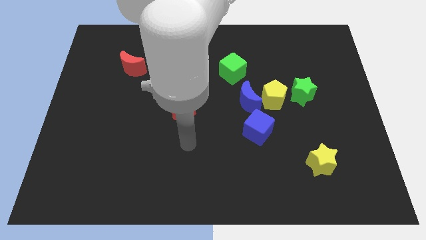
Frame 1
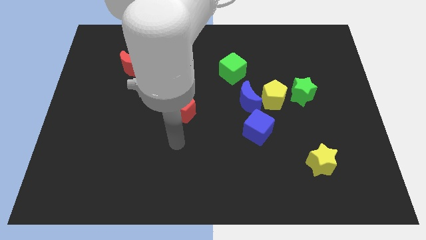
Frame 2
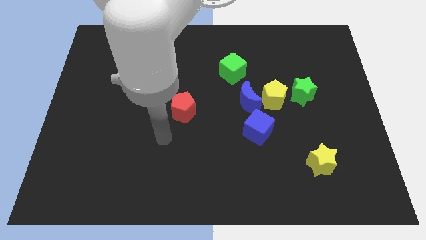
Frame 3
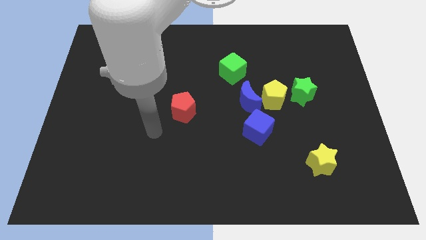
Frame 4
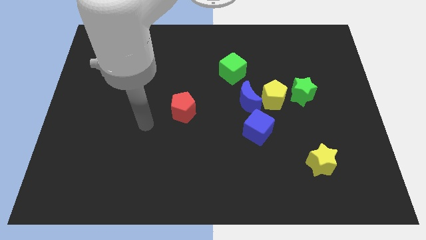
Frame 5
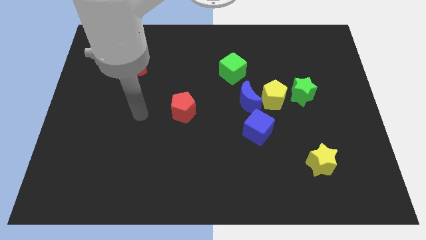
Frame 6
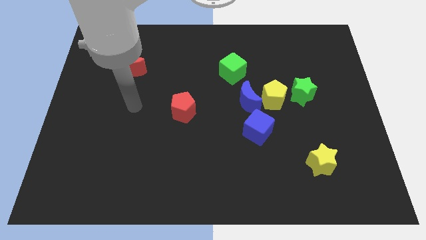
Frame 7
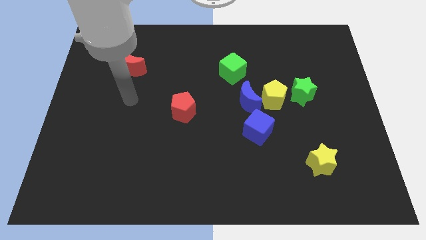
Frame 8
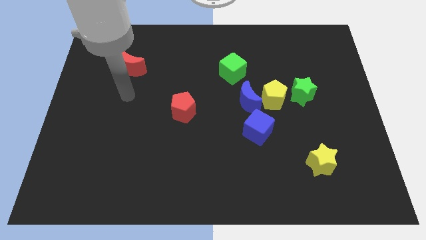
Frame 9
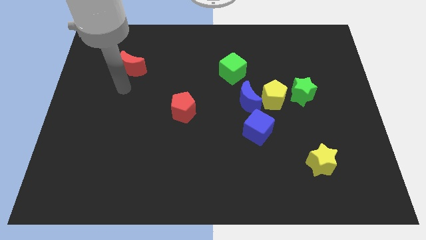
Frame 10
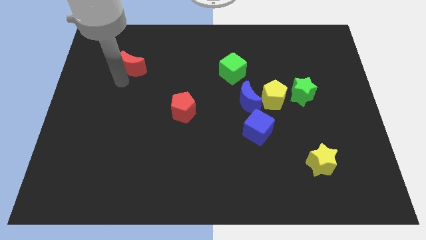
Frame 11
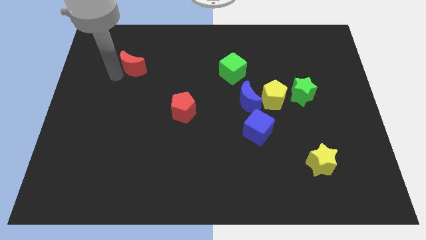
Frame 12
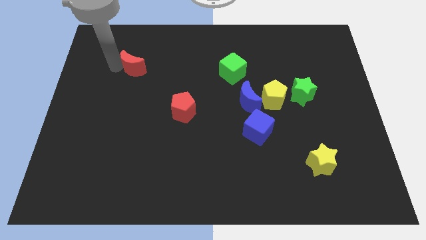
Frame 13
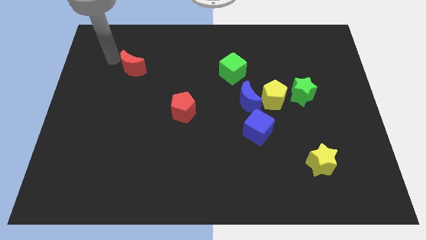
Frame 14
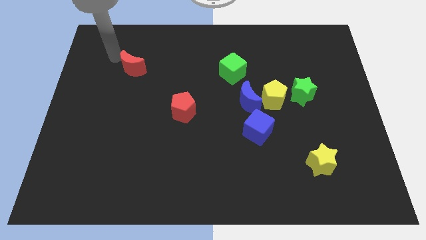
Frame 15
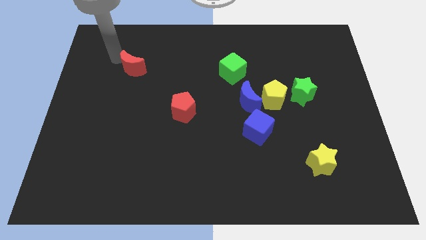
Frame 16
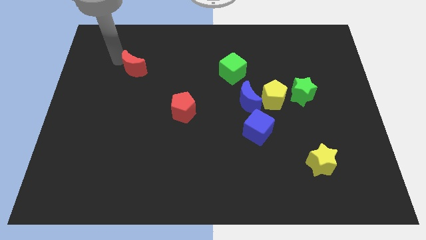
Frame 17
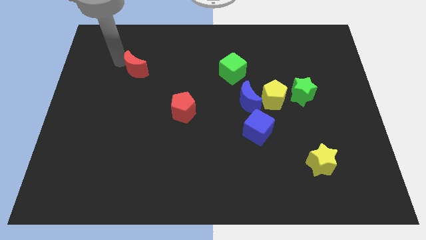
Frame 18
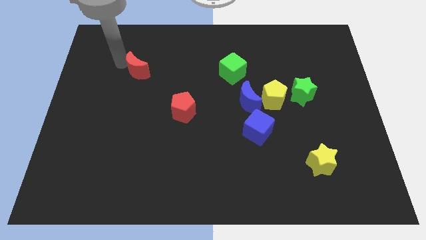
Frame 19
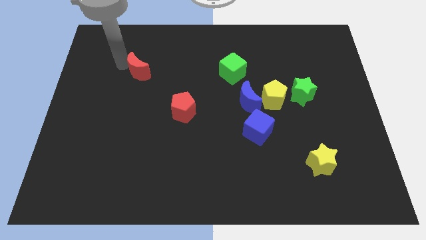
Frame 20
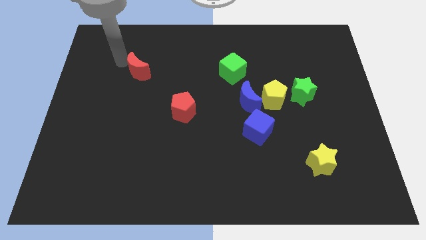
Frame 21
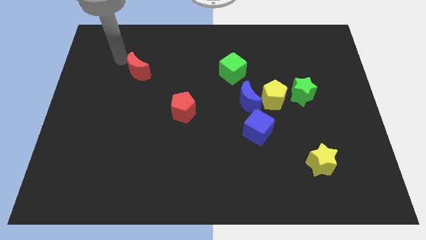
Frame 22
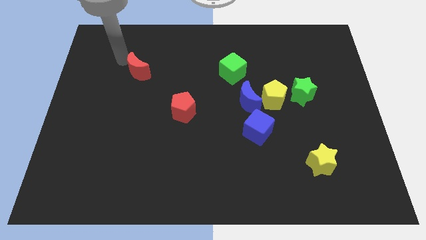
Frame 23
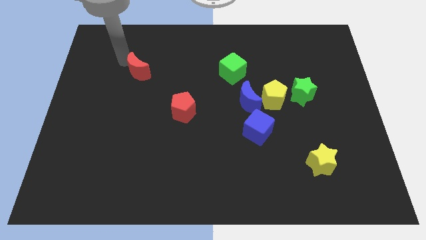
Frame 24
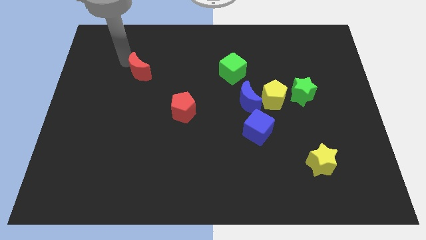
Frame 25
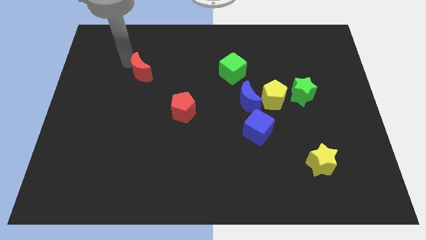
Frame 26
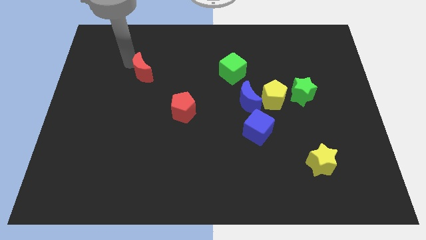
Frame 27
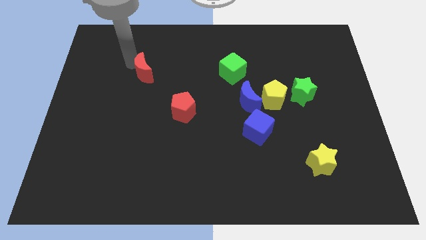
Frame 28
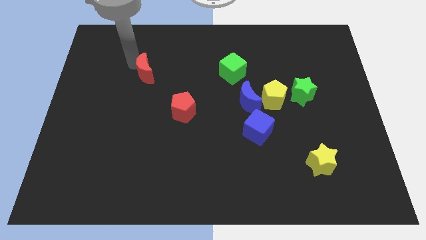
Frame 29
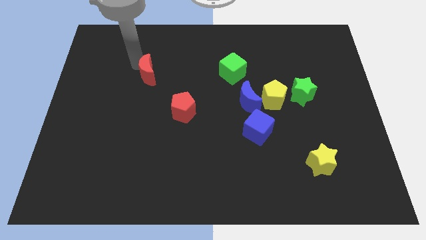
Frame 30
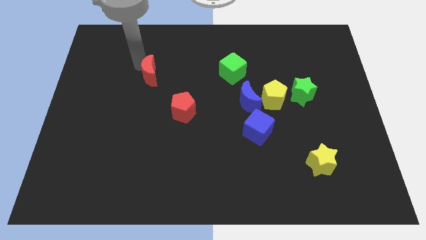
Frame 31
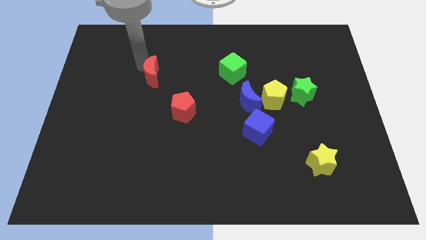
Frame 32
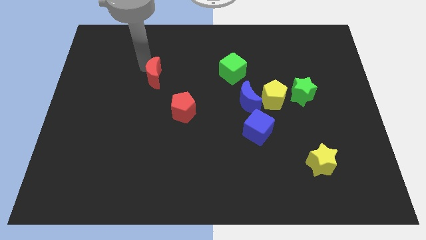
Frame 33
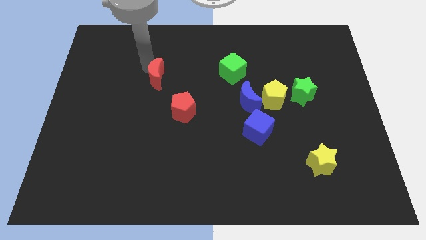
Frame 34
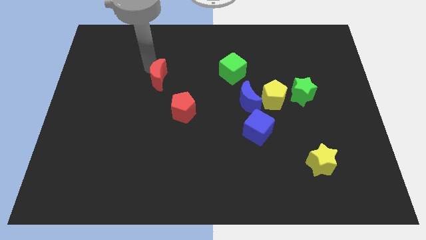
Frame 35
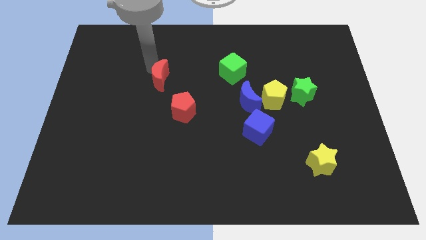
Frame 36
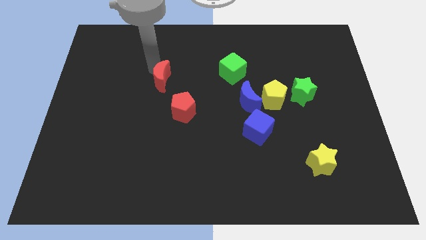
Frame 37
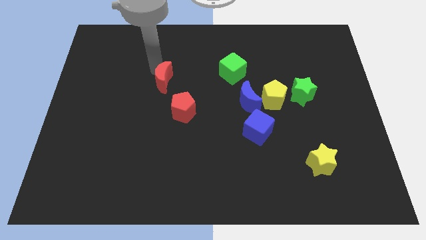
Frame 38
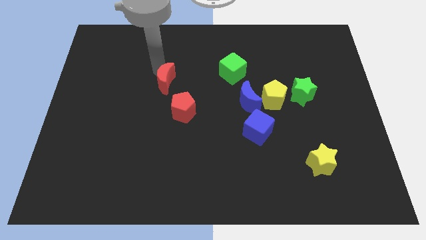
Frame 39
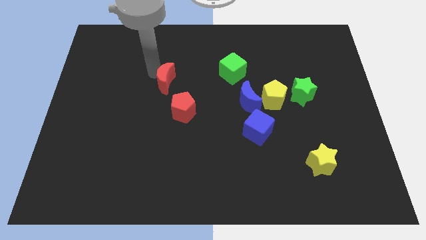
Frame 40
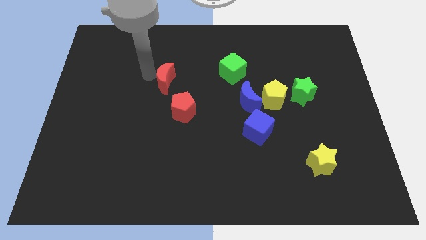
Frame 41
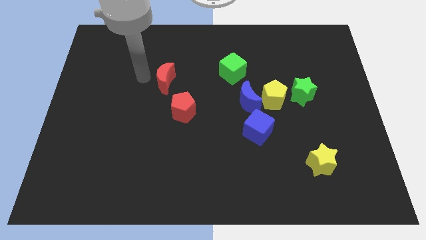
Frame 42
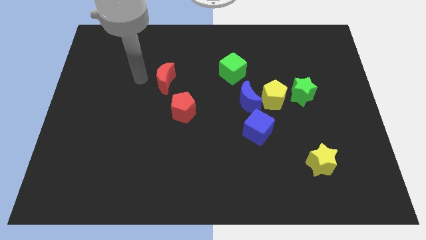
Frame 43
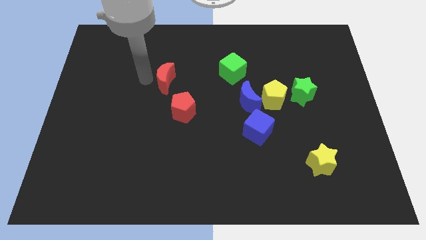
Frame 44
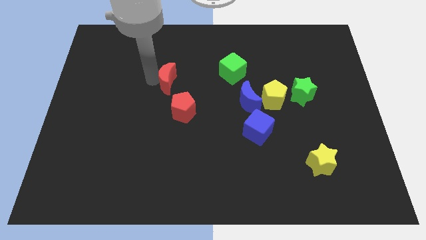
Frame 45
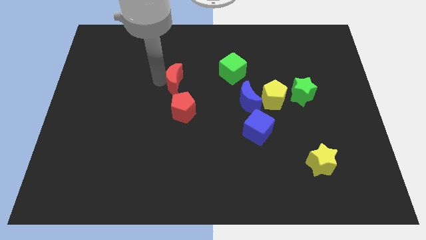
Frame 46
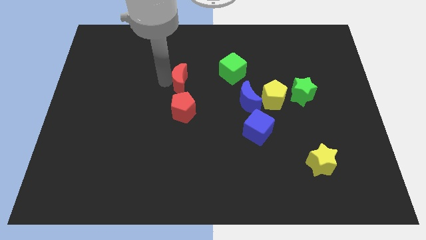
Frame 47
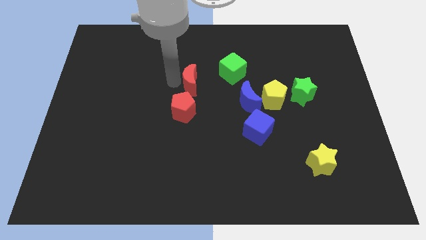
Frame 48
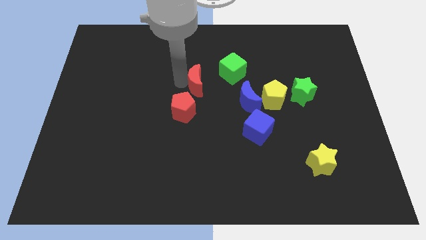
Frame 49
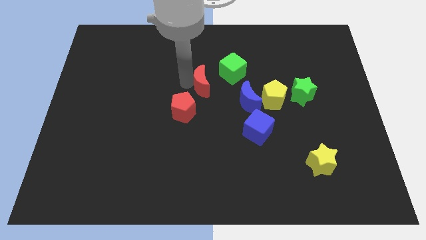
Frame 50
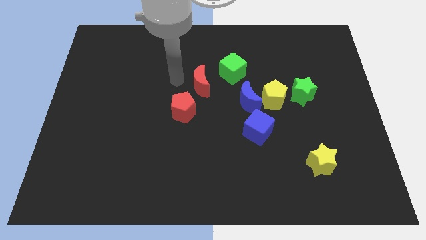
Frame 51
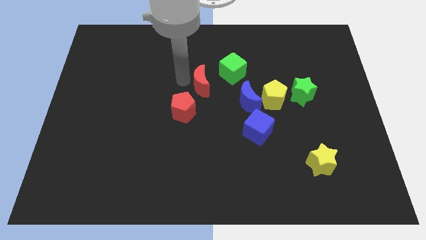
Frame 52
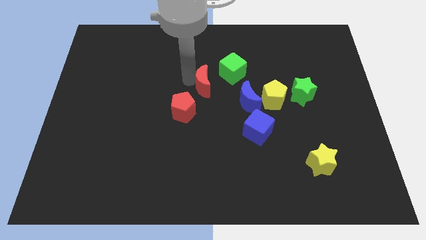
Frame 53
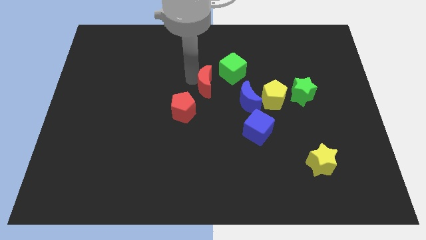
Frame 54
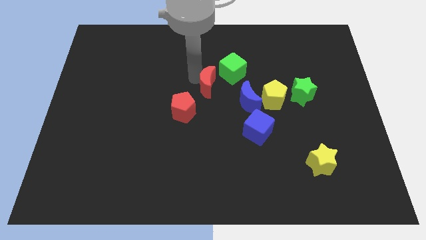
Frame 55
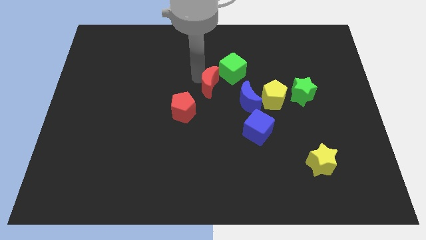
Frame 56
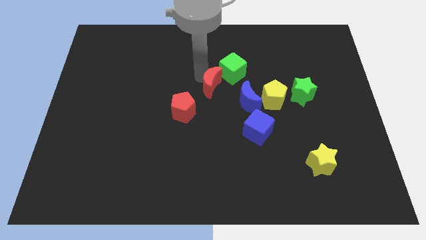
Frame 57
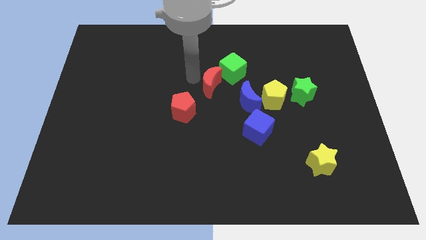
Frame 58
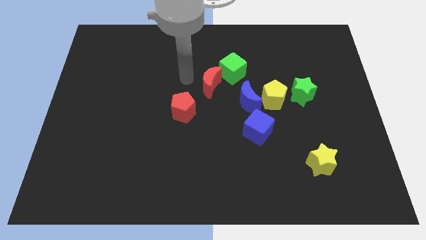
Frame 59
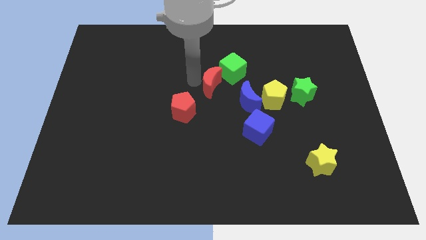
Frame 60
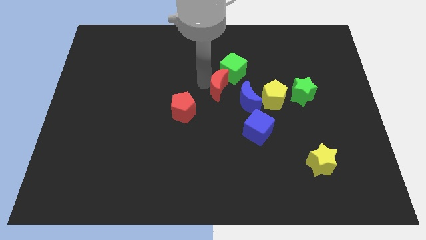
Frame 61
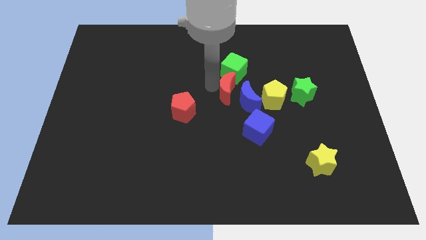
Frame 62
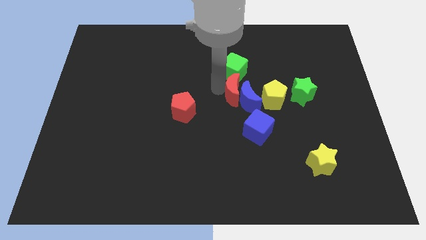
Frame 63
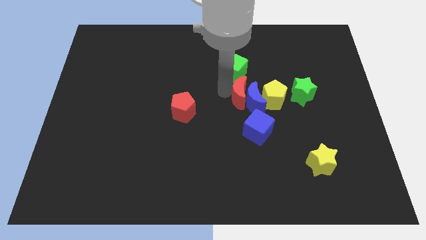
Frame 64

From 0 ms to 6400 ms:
slide the red moon to the top of the blue cube

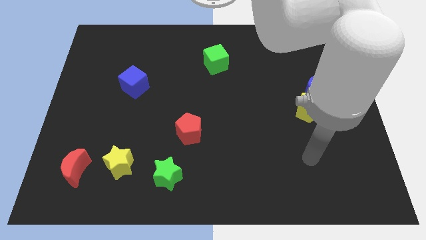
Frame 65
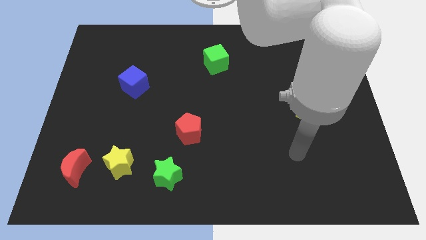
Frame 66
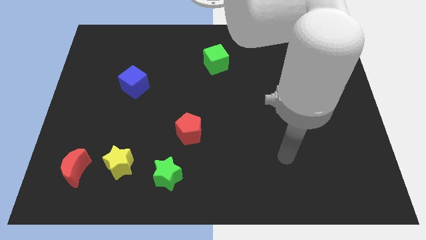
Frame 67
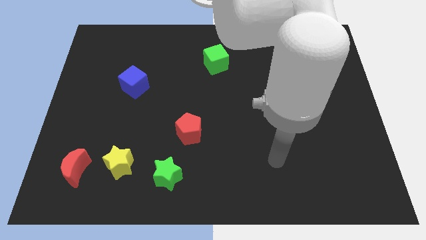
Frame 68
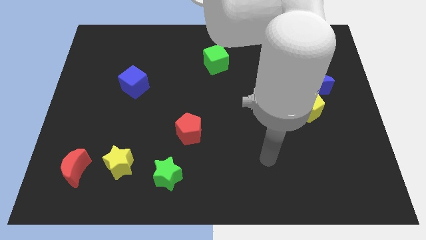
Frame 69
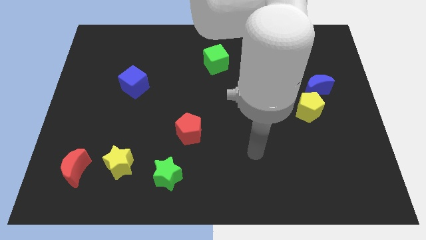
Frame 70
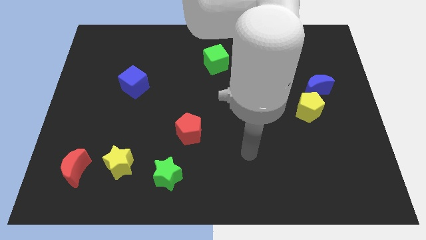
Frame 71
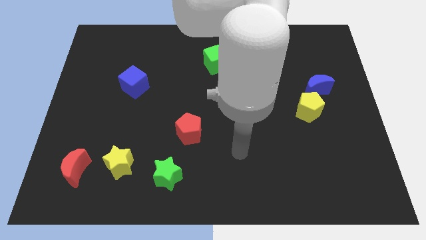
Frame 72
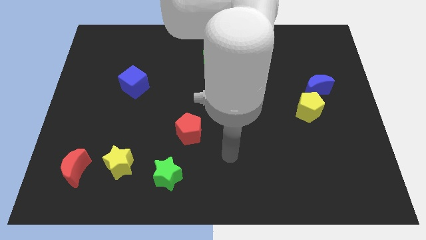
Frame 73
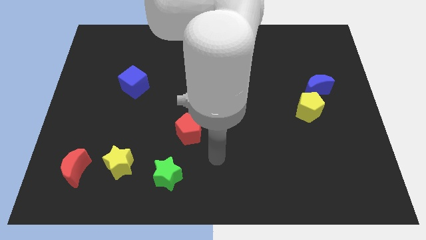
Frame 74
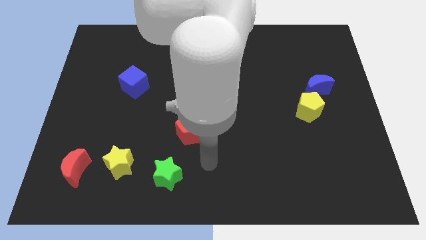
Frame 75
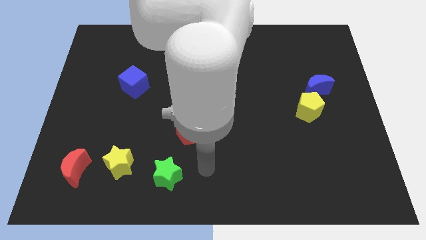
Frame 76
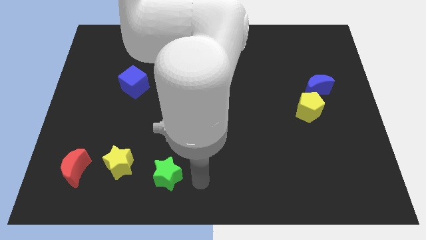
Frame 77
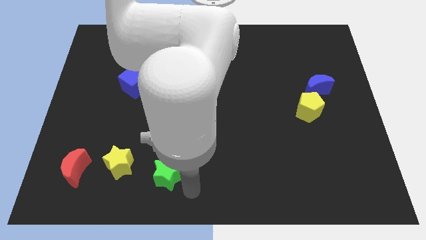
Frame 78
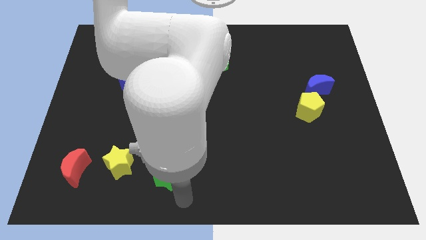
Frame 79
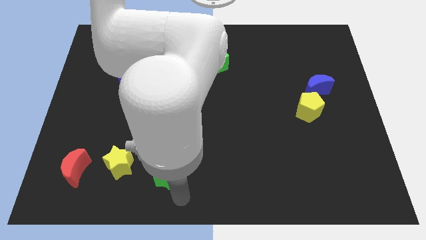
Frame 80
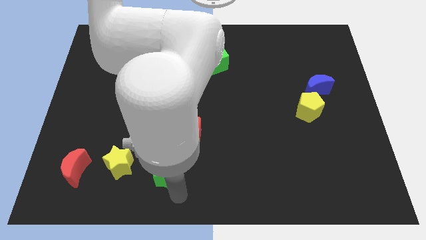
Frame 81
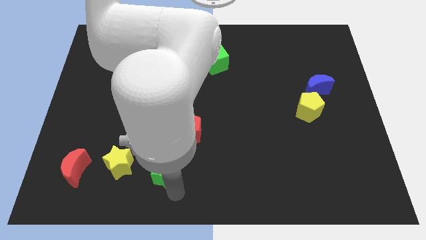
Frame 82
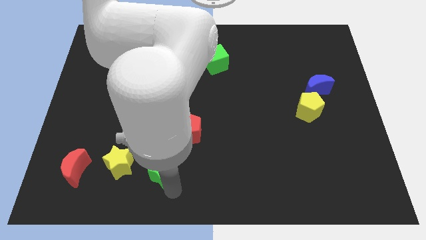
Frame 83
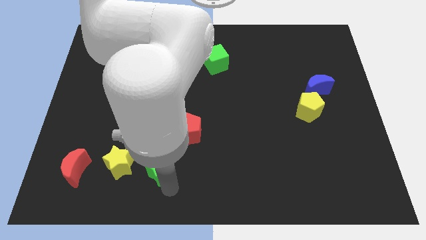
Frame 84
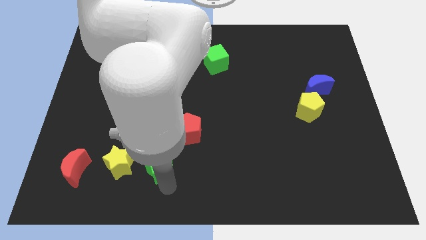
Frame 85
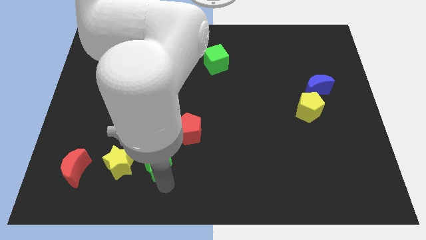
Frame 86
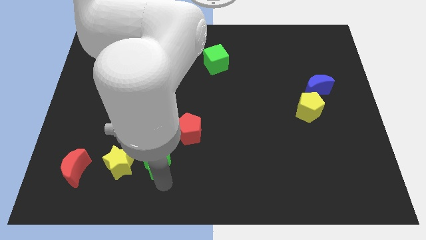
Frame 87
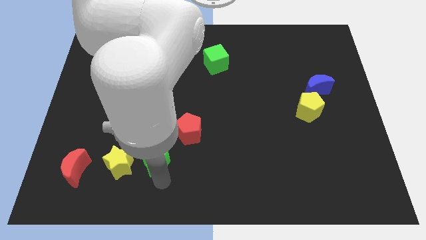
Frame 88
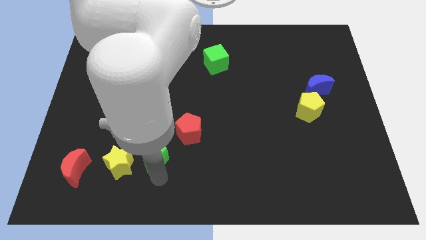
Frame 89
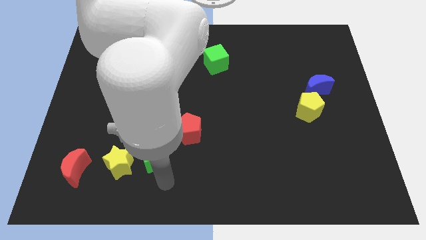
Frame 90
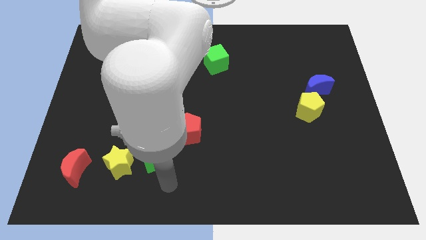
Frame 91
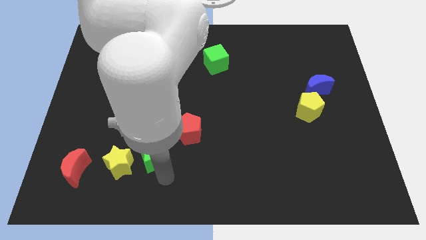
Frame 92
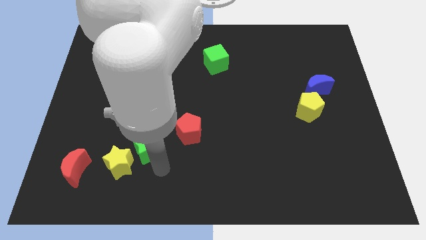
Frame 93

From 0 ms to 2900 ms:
put the green star left of the red pentagon
